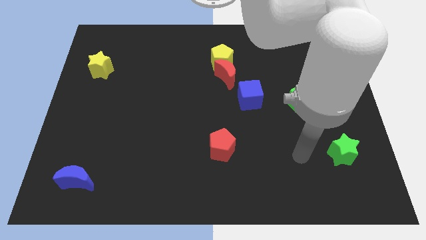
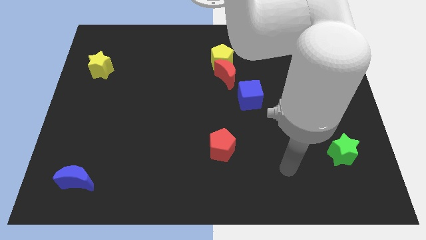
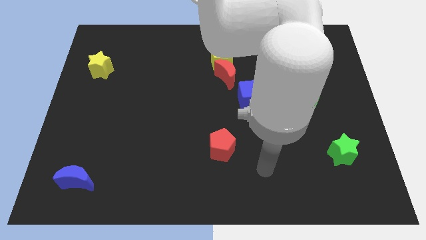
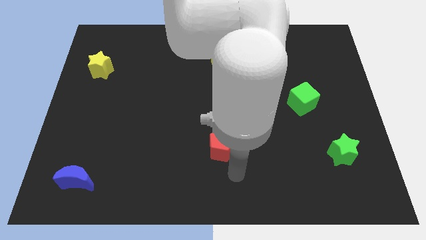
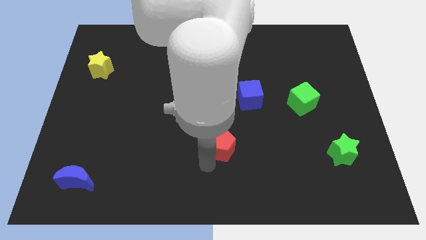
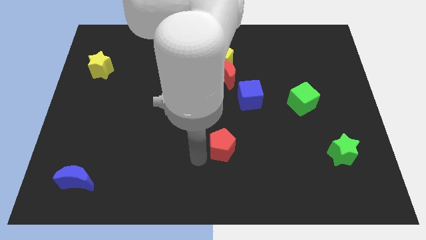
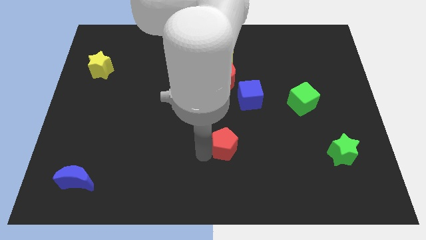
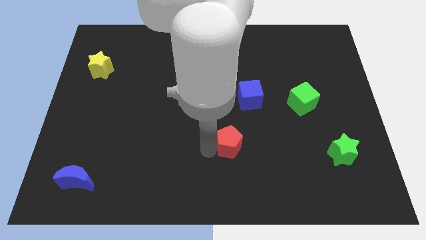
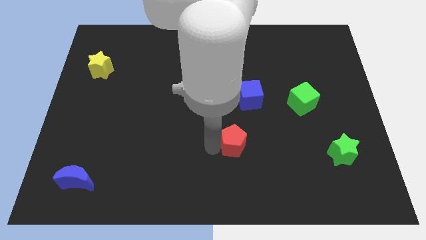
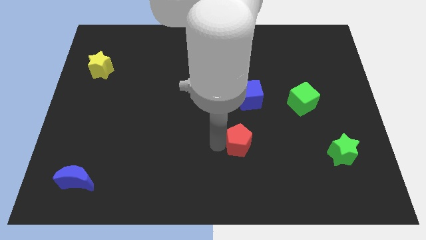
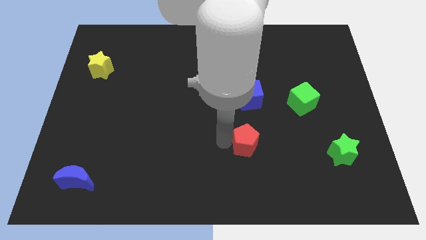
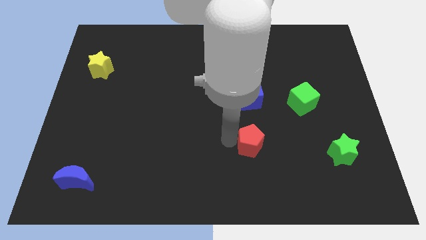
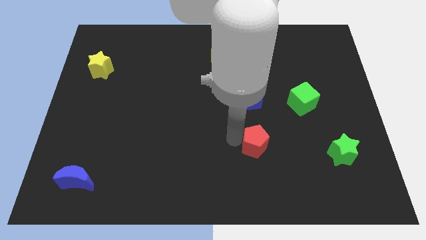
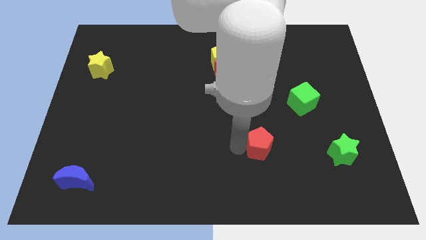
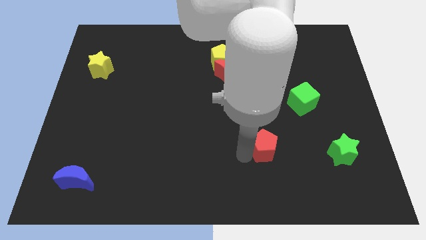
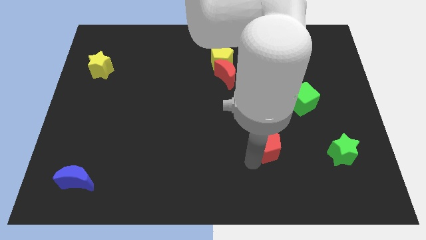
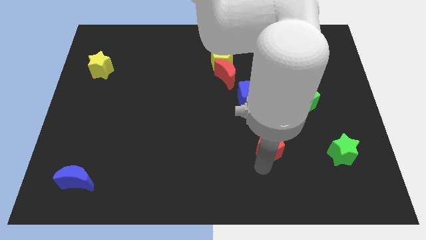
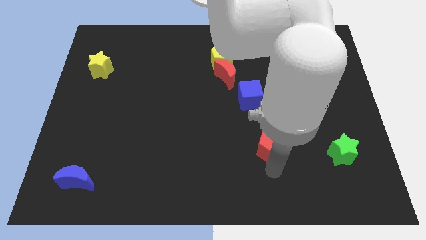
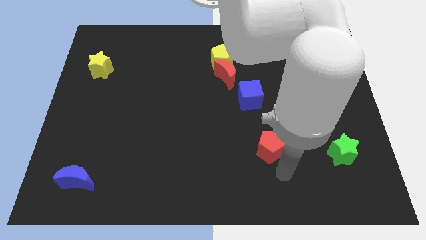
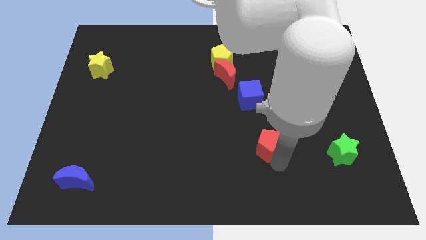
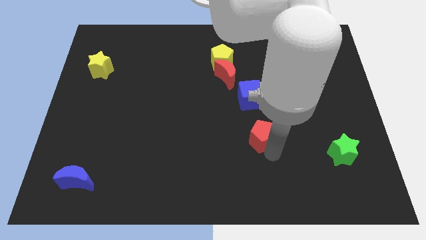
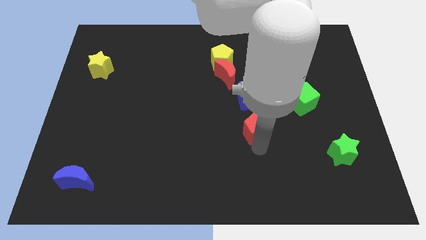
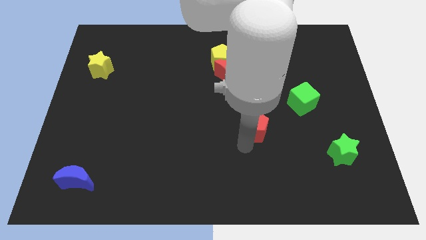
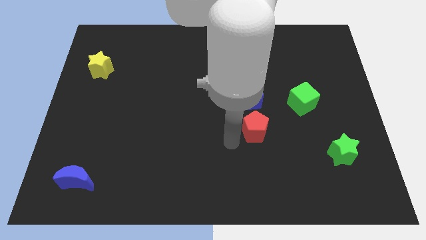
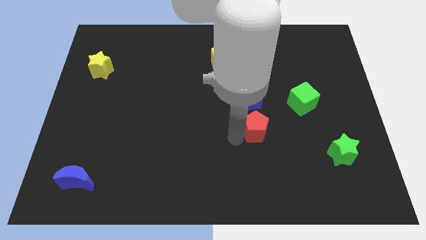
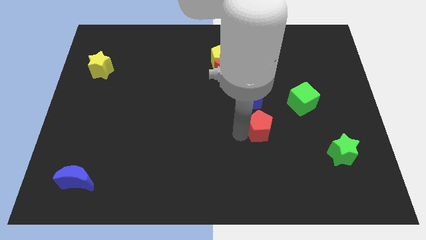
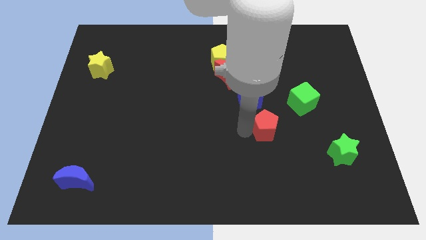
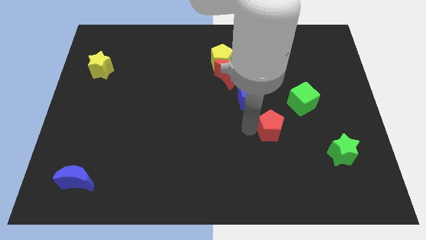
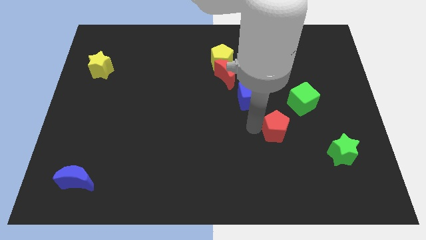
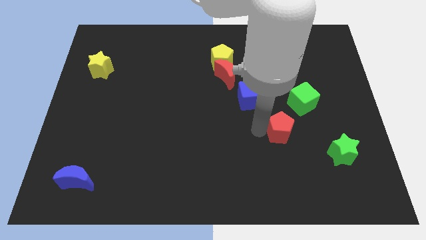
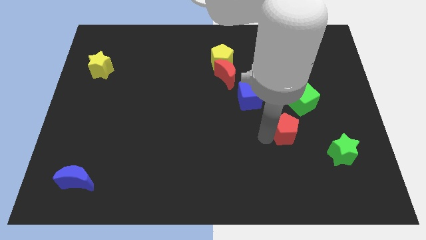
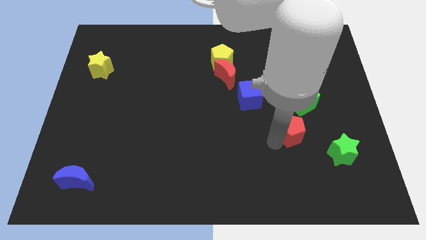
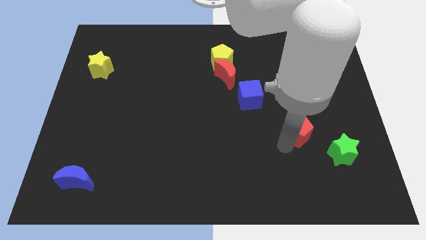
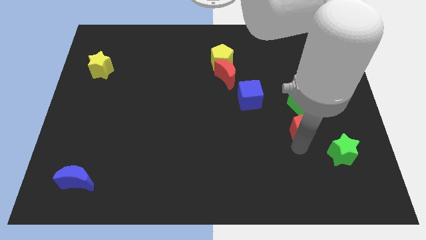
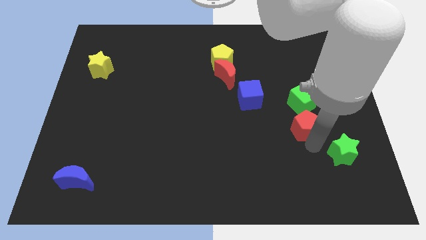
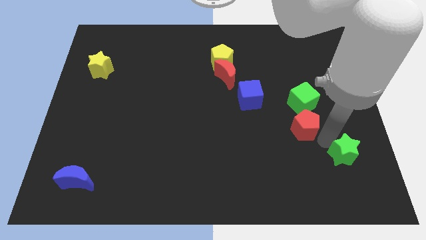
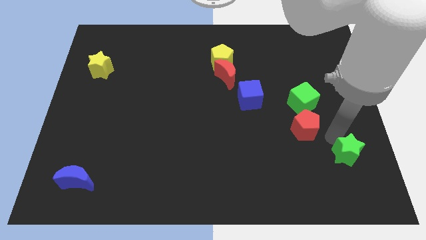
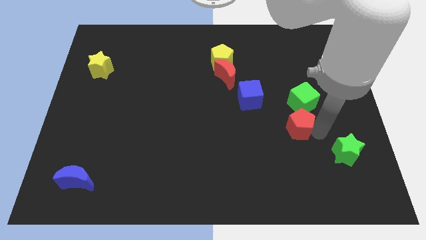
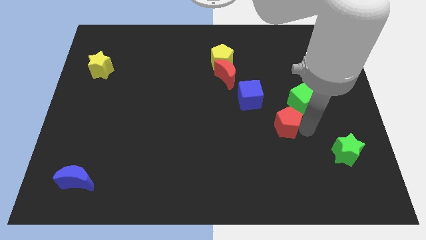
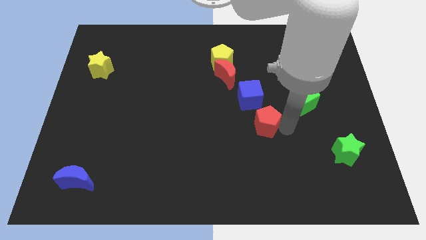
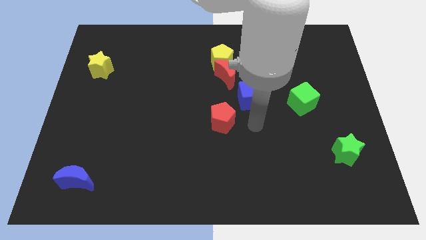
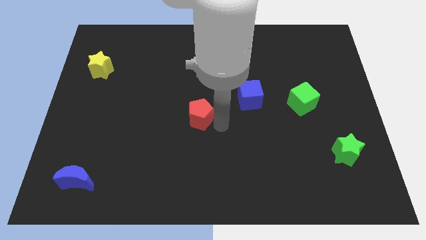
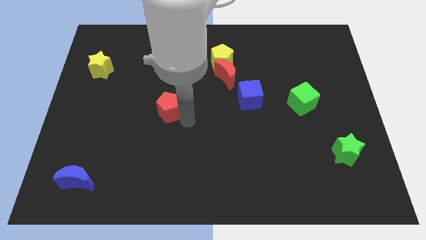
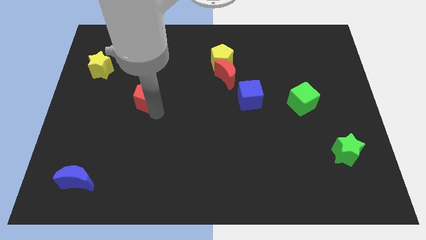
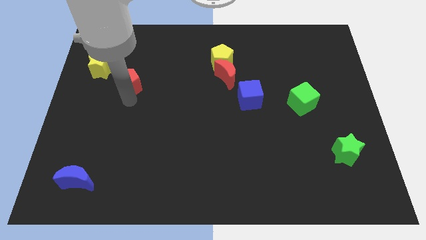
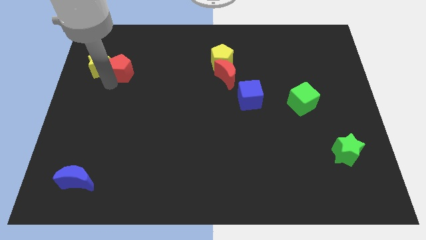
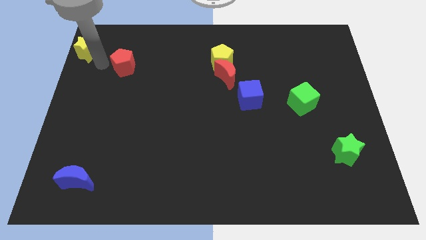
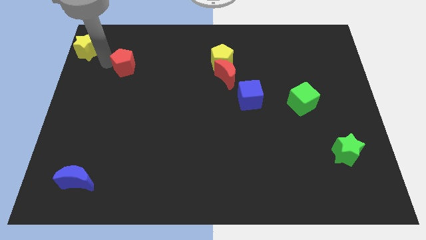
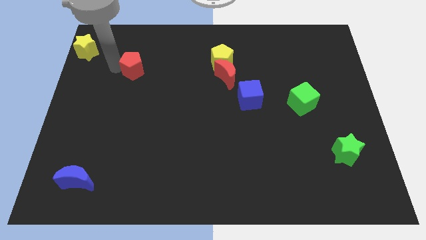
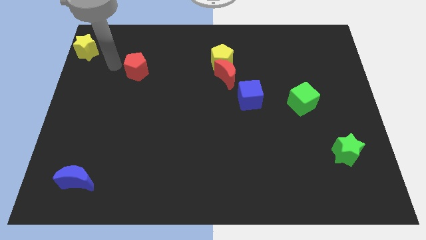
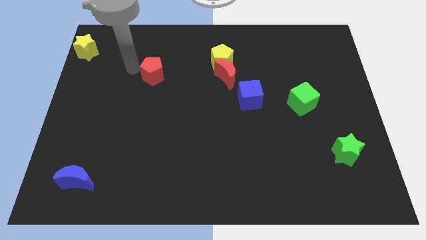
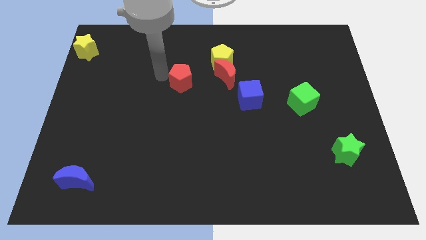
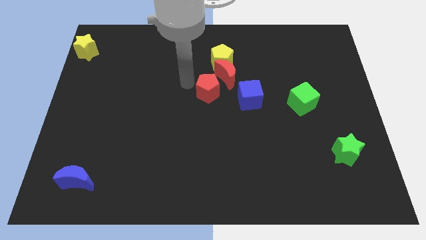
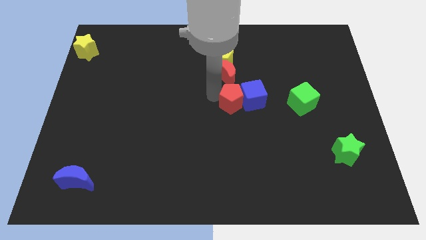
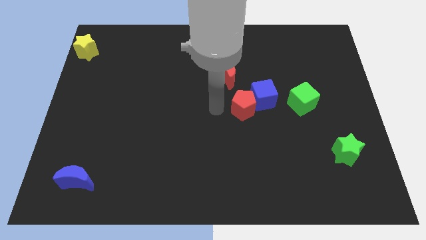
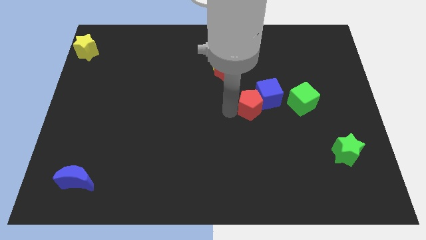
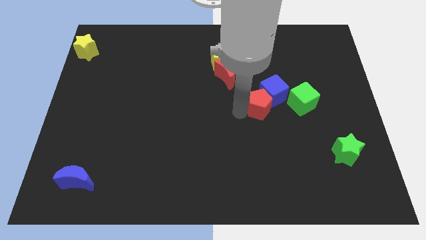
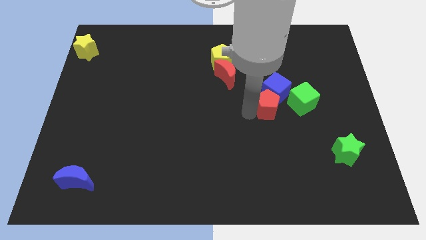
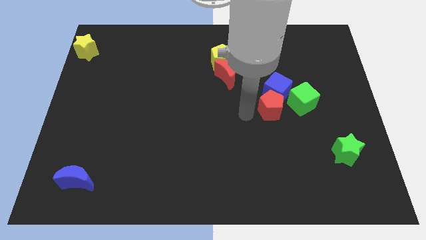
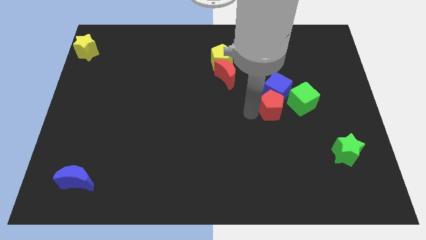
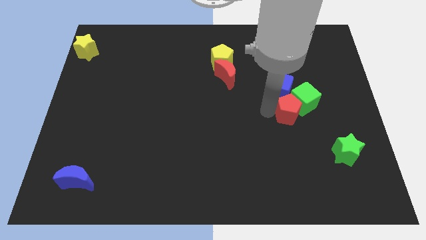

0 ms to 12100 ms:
push the red pentagon to the green cube

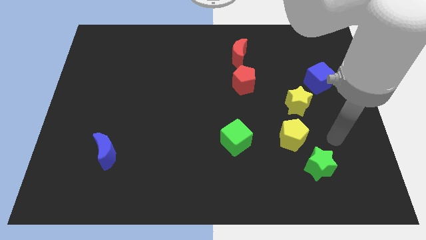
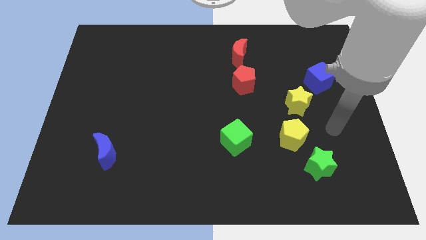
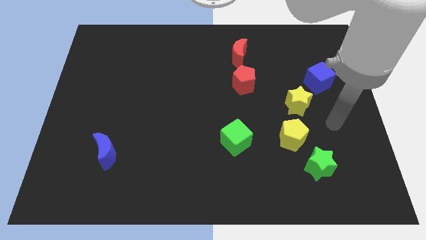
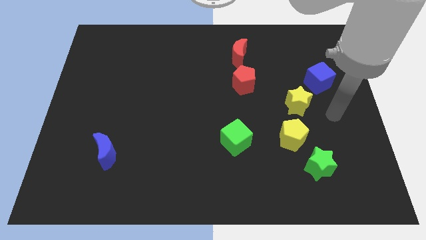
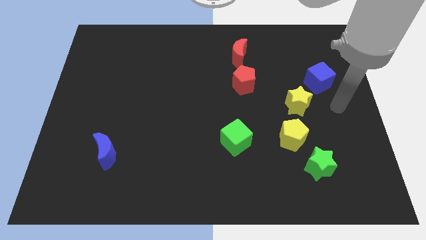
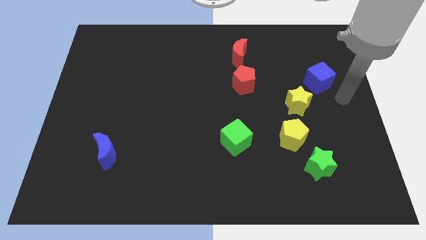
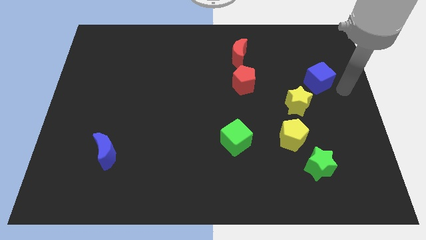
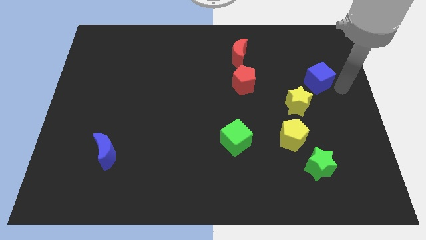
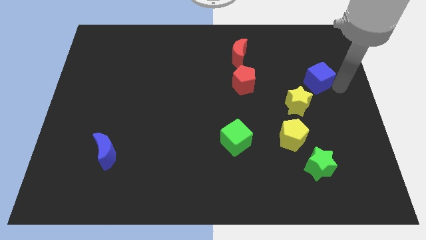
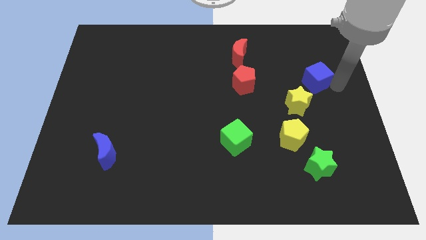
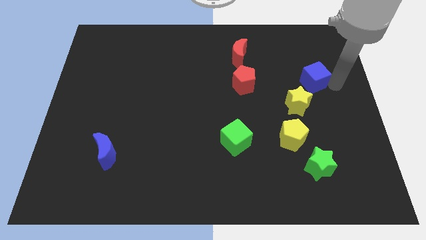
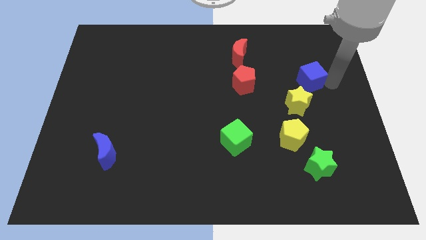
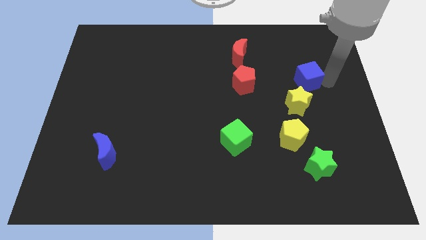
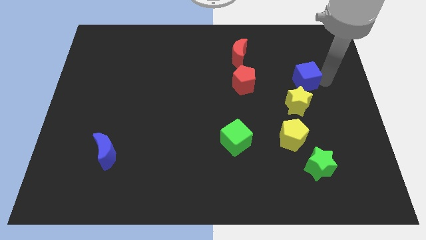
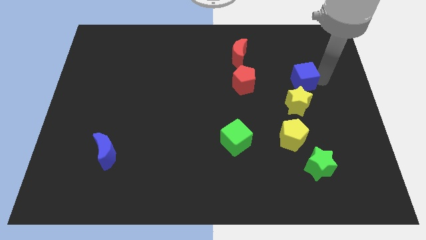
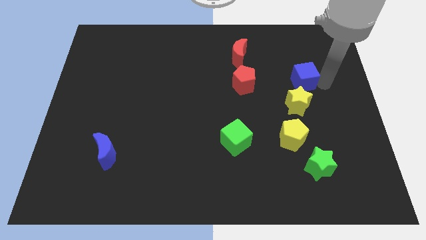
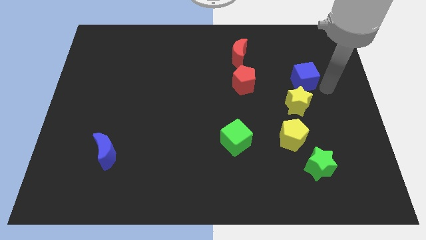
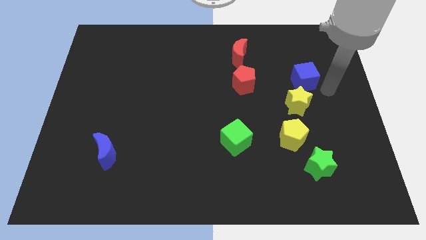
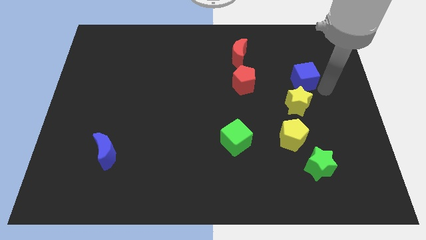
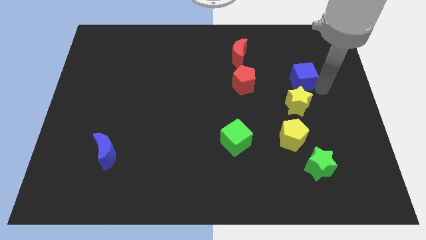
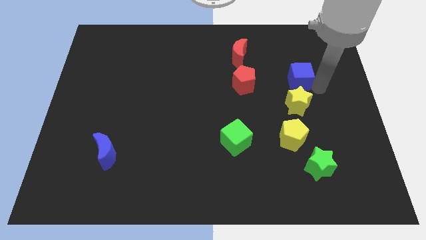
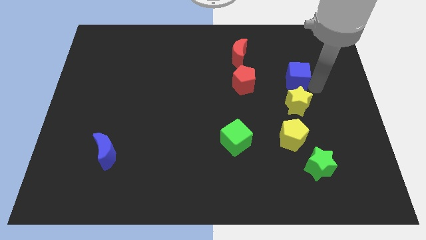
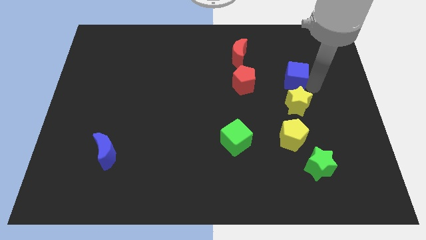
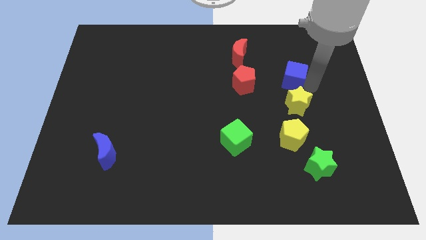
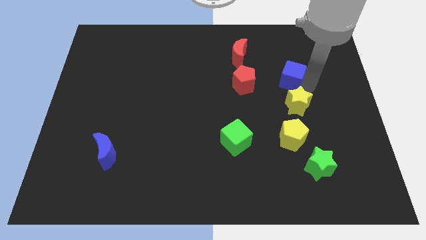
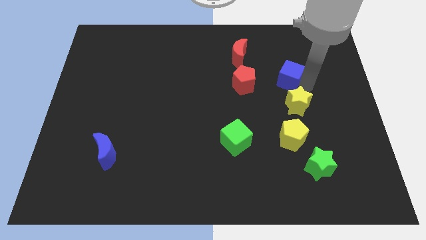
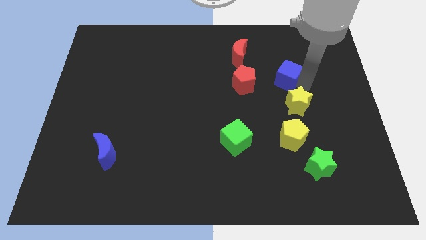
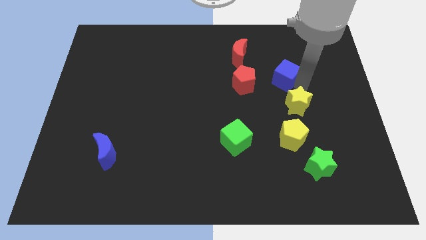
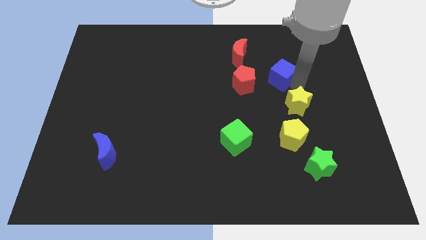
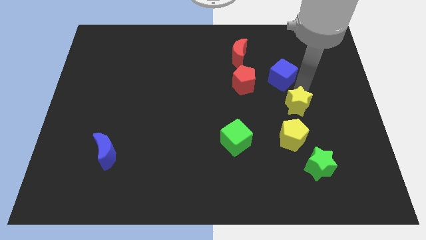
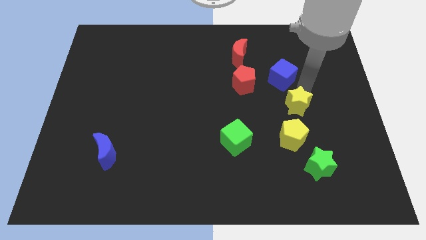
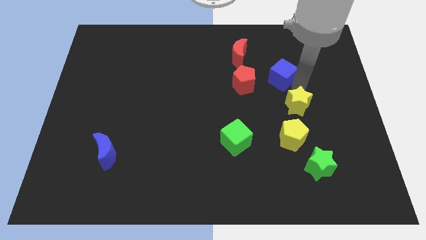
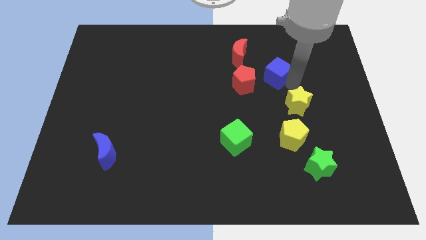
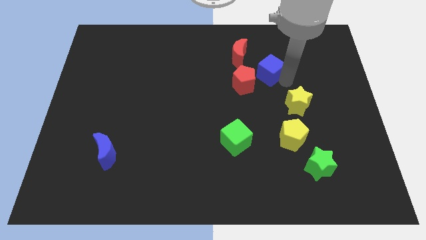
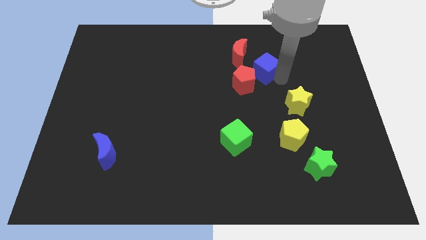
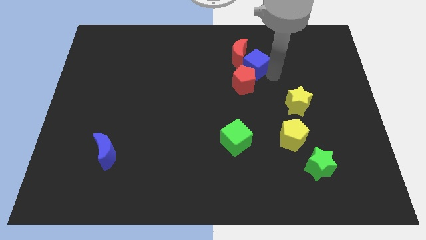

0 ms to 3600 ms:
slide the blue cube next to the red moon
